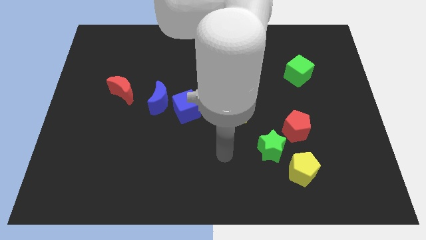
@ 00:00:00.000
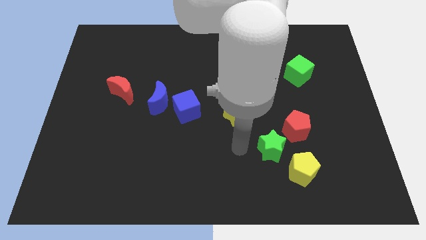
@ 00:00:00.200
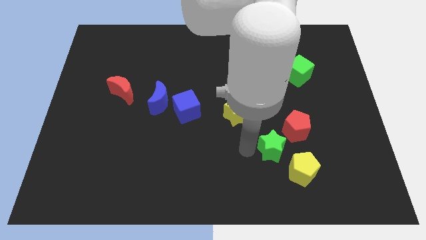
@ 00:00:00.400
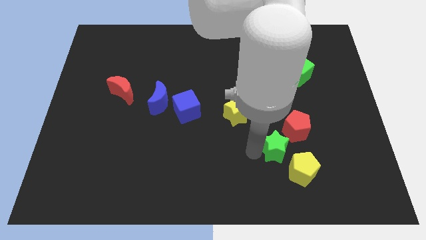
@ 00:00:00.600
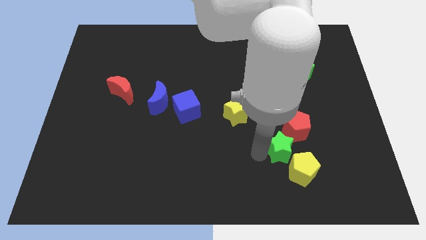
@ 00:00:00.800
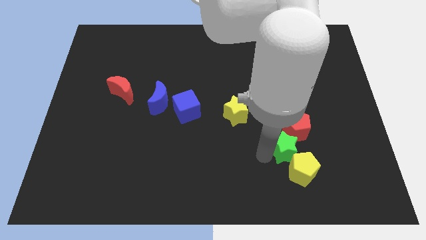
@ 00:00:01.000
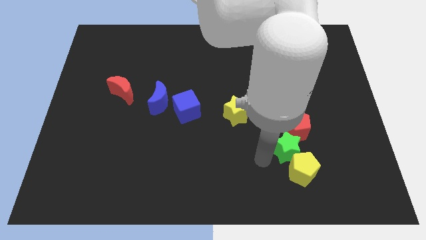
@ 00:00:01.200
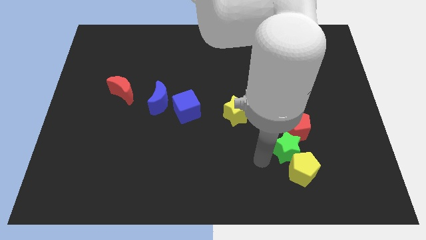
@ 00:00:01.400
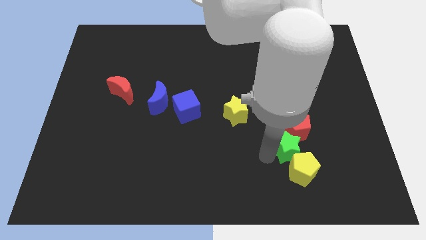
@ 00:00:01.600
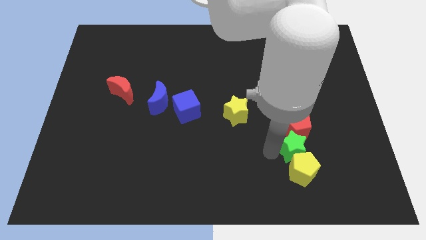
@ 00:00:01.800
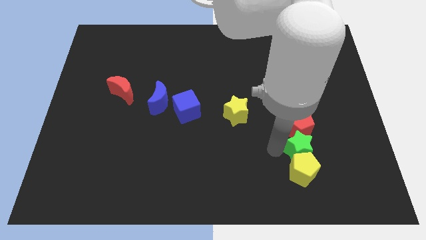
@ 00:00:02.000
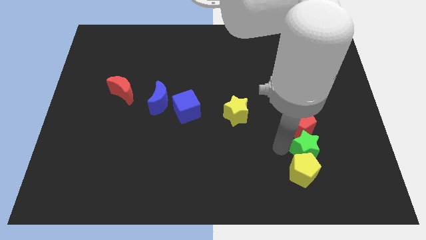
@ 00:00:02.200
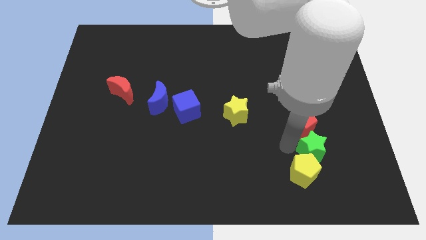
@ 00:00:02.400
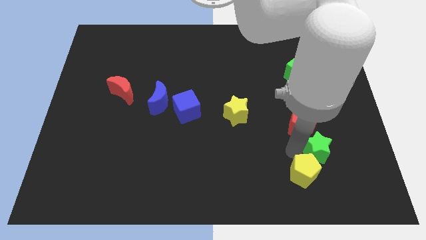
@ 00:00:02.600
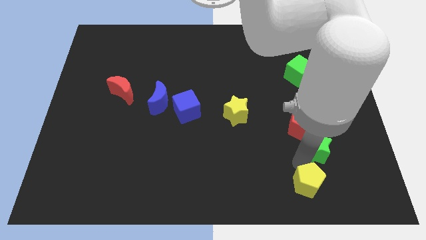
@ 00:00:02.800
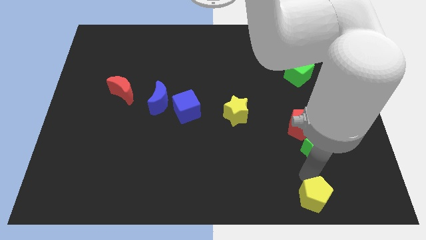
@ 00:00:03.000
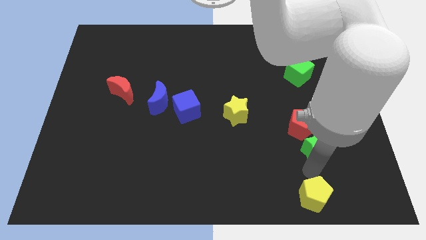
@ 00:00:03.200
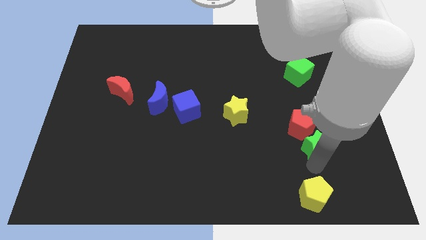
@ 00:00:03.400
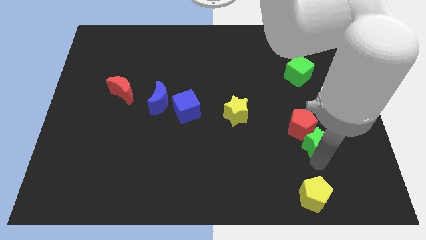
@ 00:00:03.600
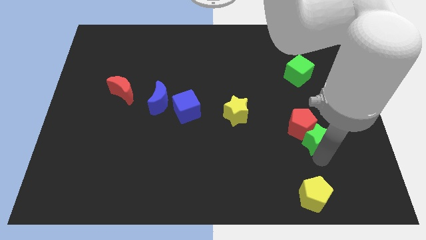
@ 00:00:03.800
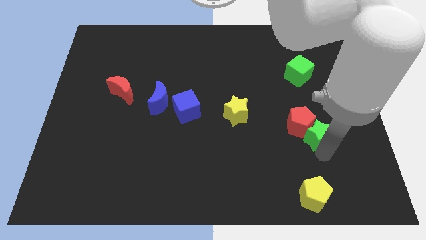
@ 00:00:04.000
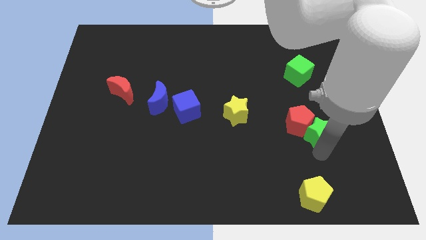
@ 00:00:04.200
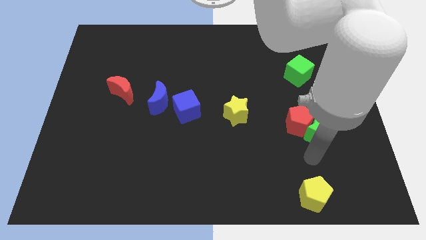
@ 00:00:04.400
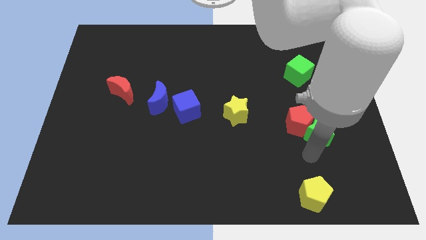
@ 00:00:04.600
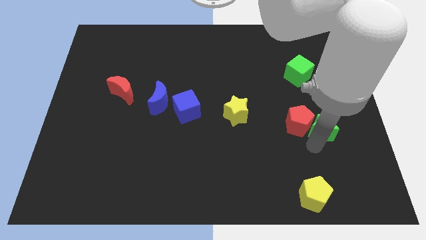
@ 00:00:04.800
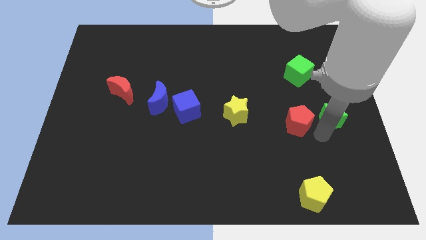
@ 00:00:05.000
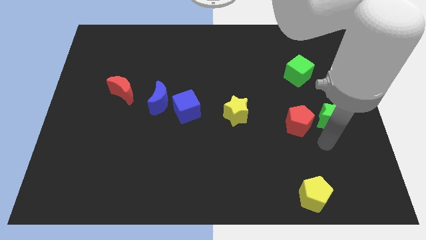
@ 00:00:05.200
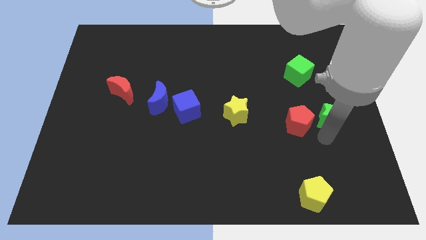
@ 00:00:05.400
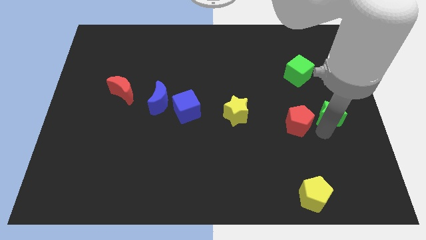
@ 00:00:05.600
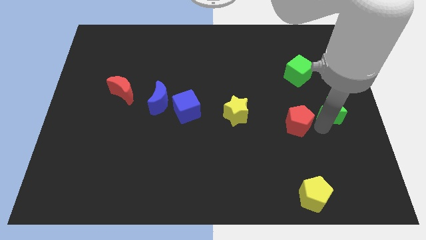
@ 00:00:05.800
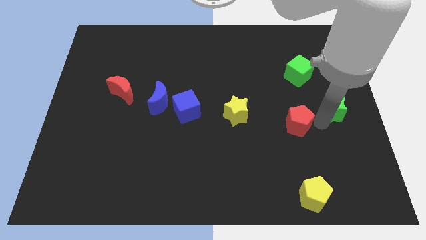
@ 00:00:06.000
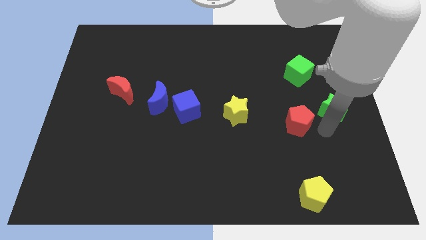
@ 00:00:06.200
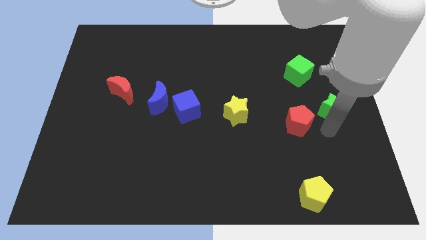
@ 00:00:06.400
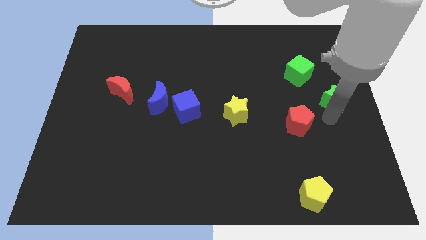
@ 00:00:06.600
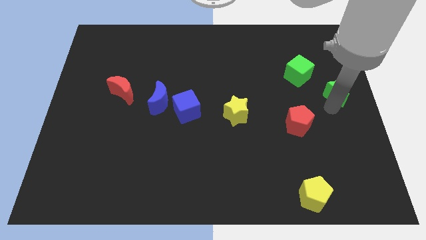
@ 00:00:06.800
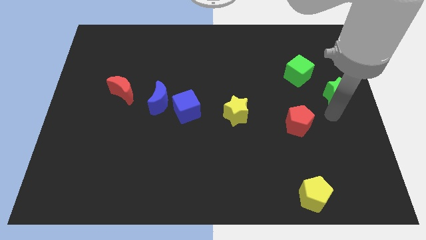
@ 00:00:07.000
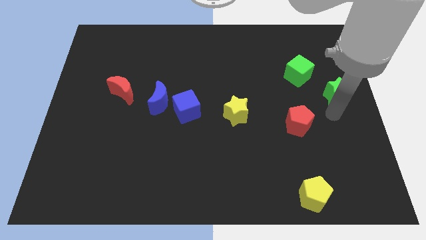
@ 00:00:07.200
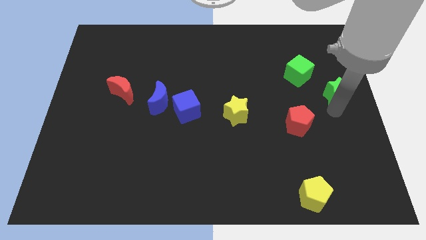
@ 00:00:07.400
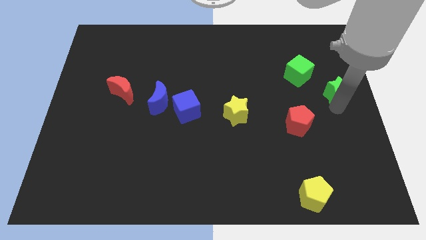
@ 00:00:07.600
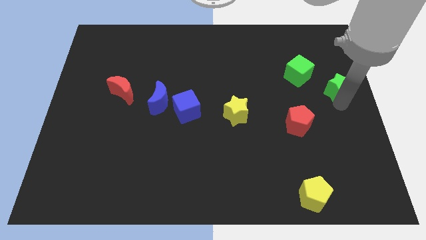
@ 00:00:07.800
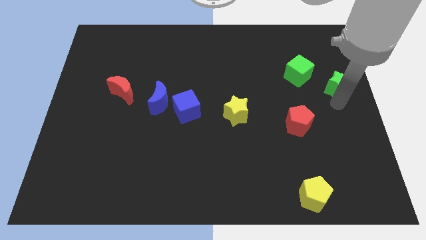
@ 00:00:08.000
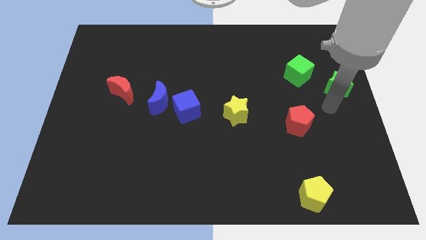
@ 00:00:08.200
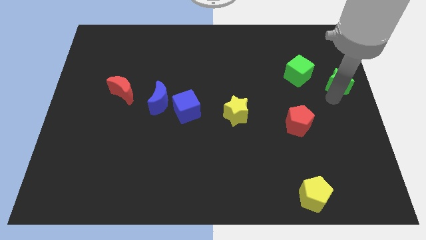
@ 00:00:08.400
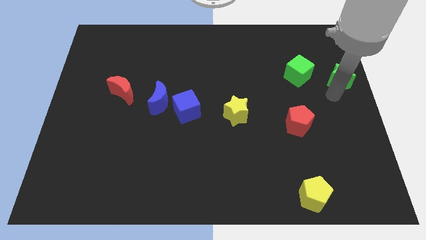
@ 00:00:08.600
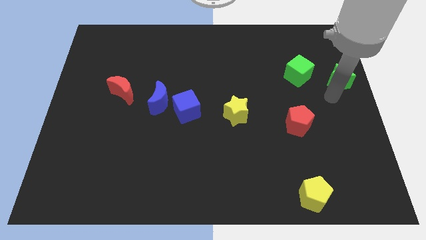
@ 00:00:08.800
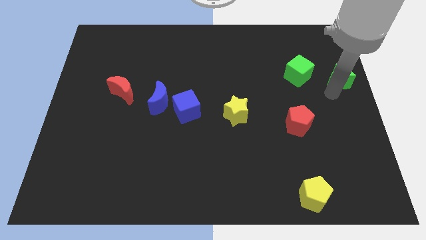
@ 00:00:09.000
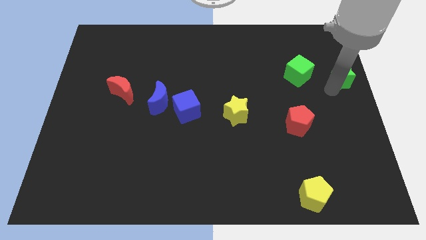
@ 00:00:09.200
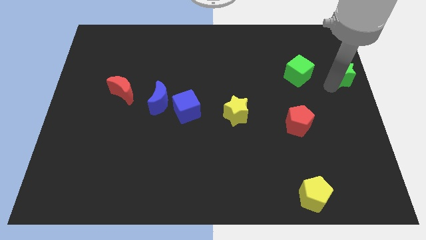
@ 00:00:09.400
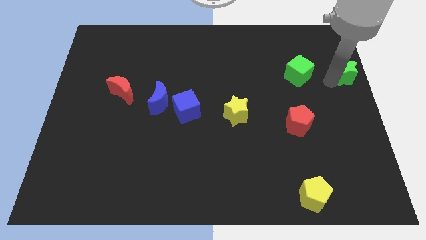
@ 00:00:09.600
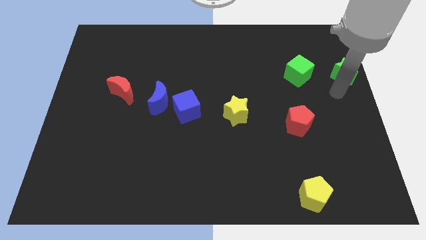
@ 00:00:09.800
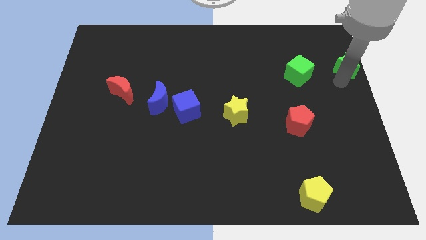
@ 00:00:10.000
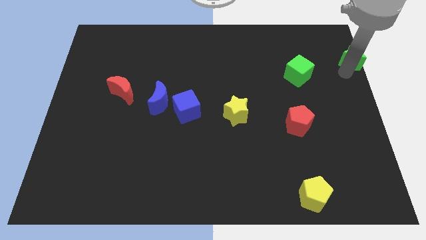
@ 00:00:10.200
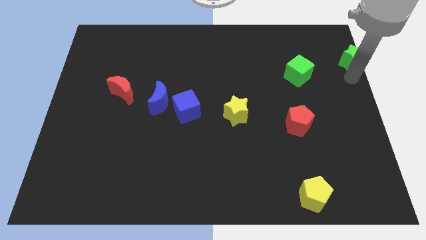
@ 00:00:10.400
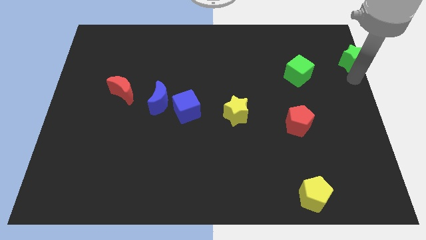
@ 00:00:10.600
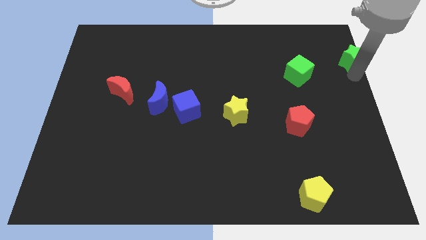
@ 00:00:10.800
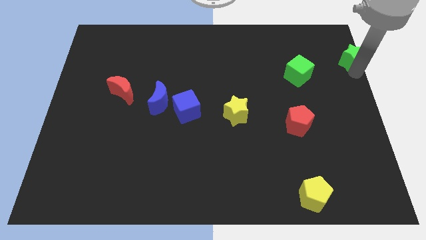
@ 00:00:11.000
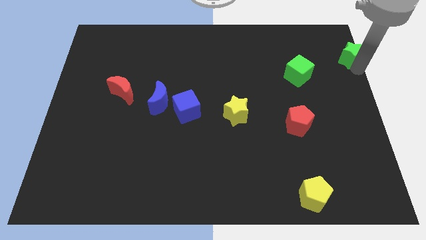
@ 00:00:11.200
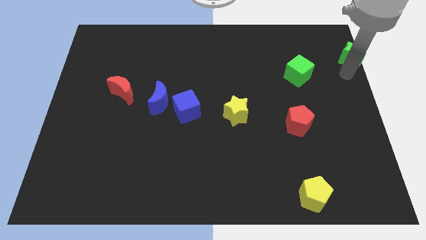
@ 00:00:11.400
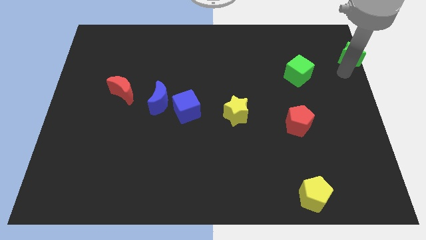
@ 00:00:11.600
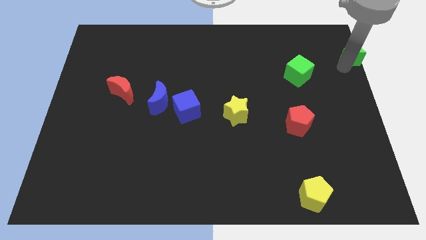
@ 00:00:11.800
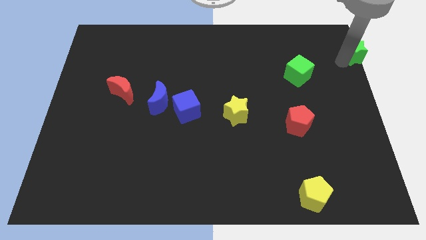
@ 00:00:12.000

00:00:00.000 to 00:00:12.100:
slide the green star to the top right

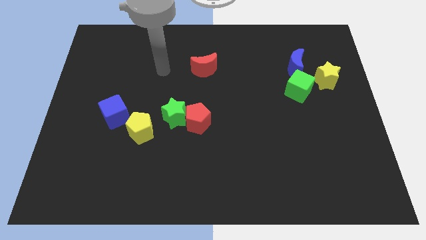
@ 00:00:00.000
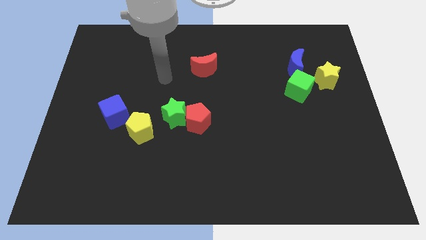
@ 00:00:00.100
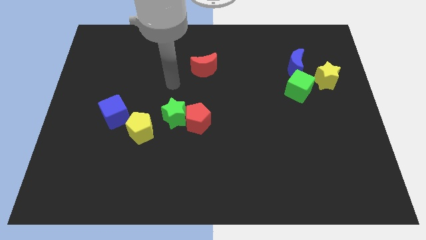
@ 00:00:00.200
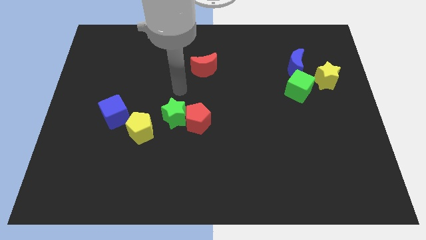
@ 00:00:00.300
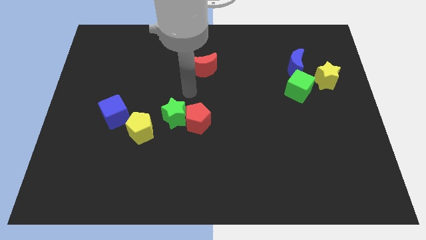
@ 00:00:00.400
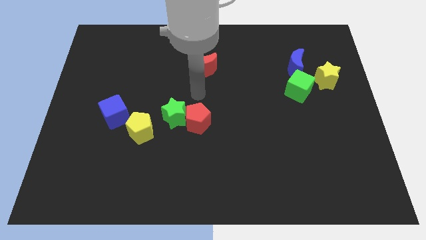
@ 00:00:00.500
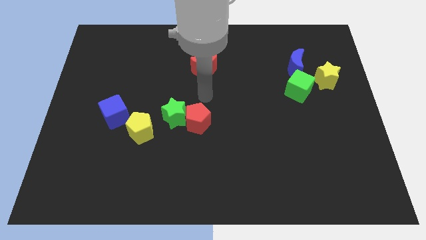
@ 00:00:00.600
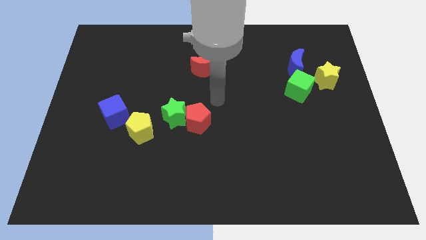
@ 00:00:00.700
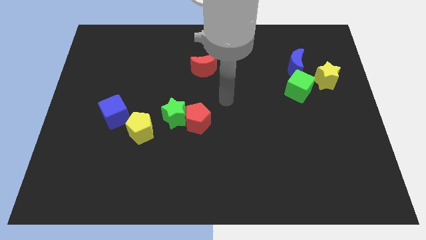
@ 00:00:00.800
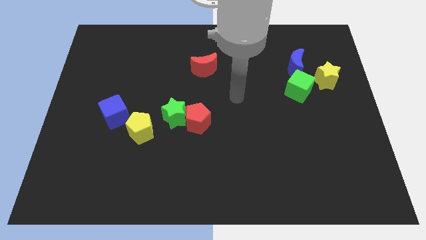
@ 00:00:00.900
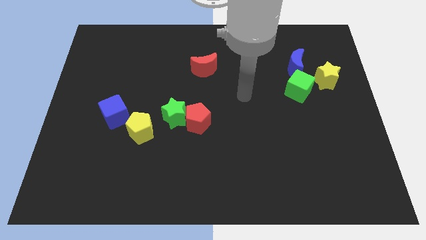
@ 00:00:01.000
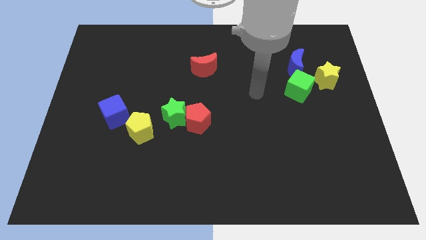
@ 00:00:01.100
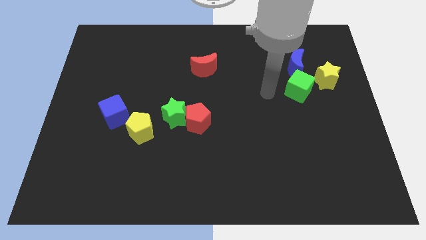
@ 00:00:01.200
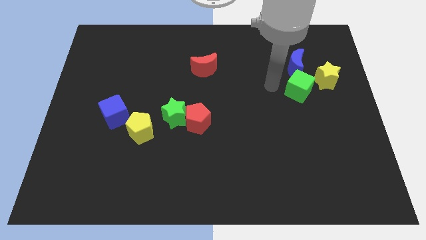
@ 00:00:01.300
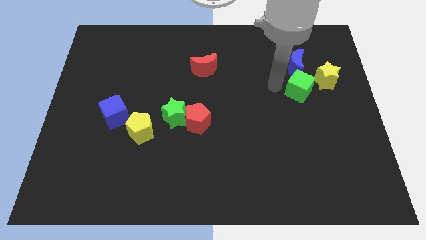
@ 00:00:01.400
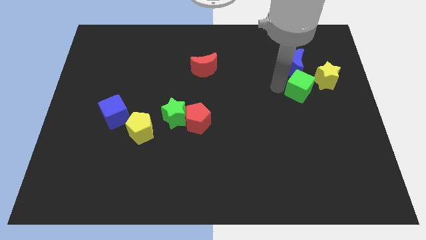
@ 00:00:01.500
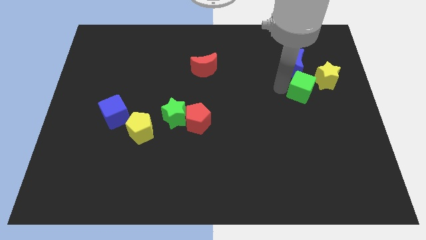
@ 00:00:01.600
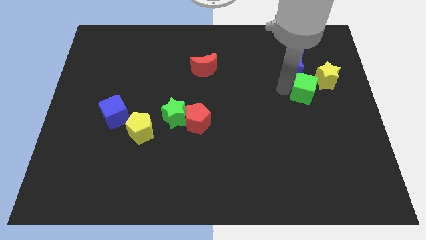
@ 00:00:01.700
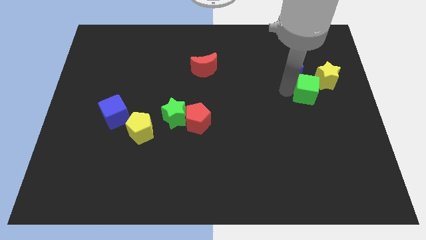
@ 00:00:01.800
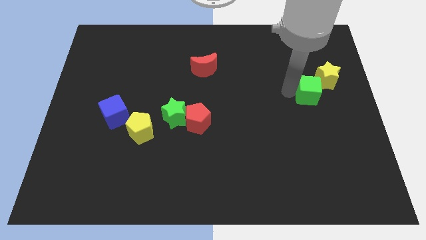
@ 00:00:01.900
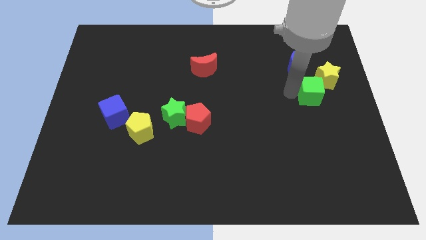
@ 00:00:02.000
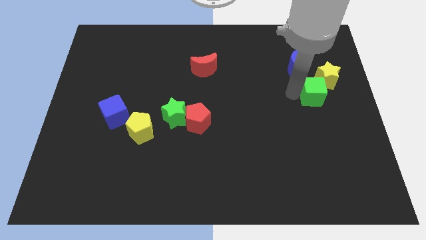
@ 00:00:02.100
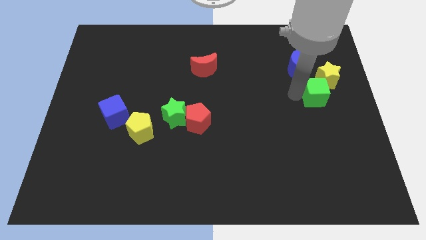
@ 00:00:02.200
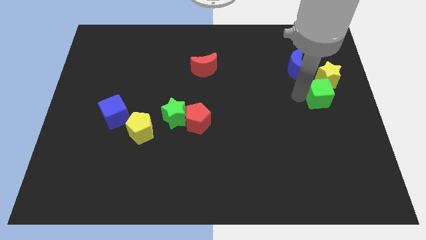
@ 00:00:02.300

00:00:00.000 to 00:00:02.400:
put the green cube to the right side of the board
